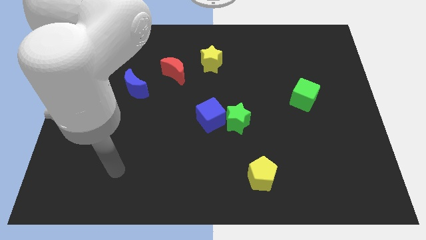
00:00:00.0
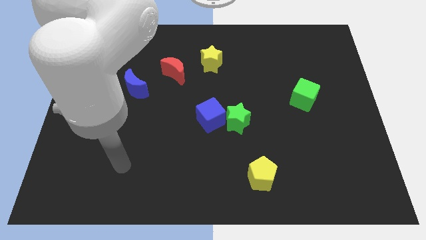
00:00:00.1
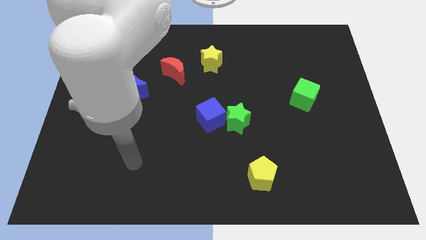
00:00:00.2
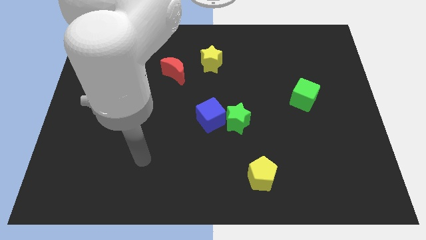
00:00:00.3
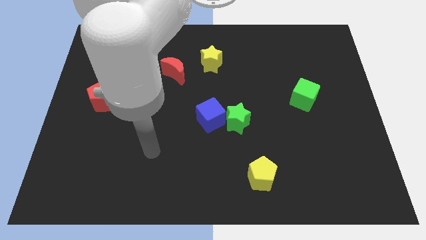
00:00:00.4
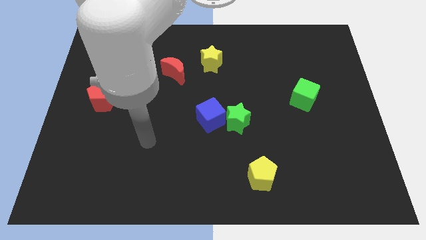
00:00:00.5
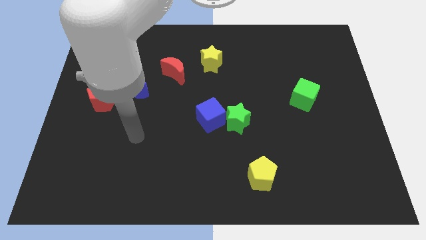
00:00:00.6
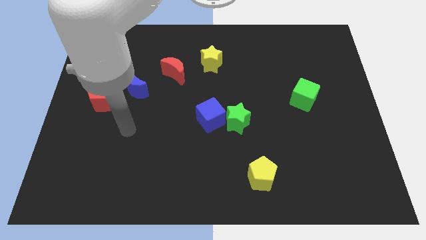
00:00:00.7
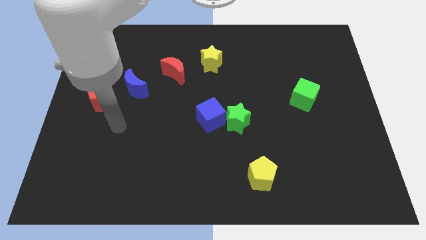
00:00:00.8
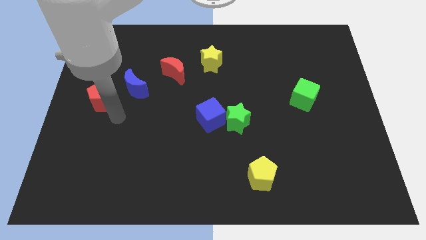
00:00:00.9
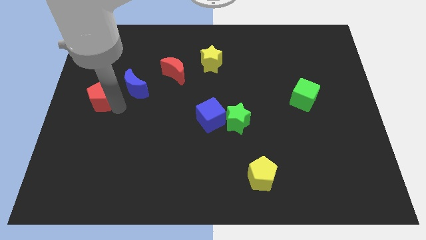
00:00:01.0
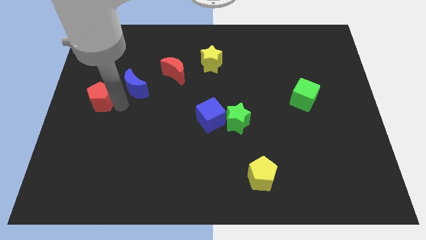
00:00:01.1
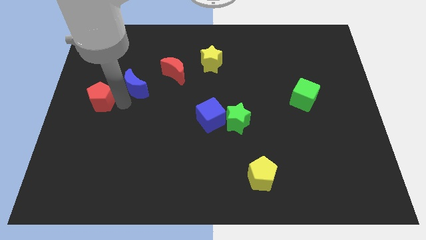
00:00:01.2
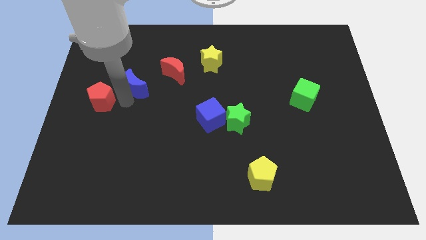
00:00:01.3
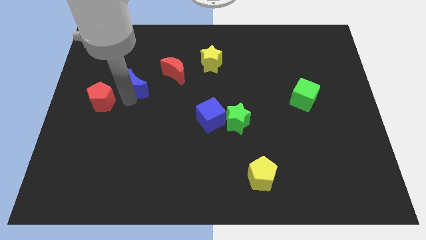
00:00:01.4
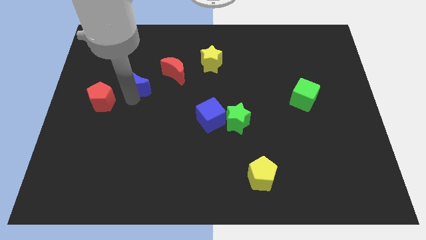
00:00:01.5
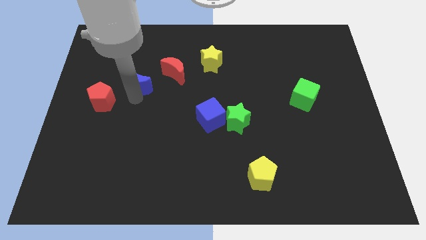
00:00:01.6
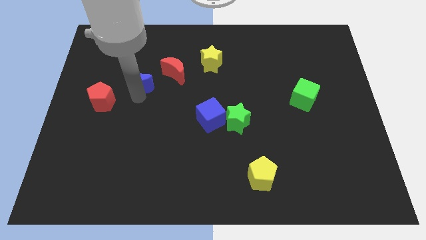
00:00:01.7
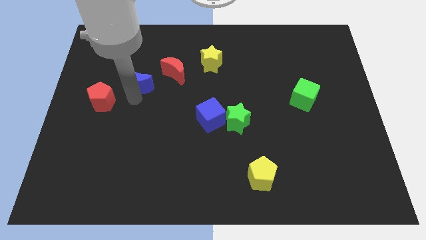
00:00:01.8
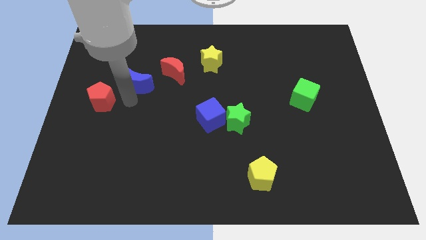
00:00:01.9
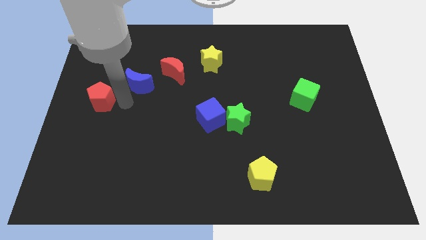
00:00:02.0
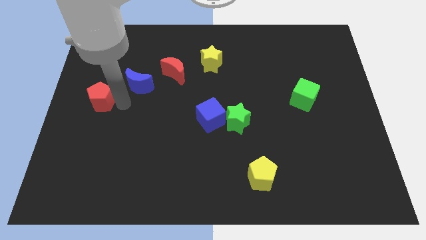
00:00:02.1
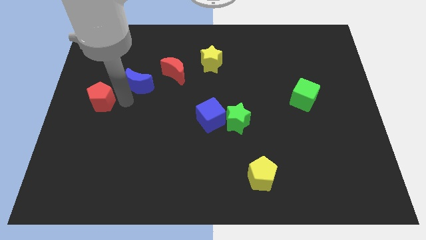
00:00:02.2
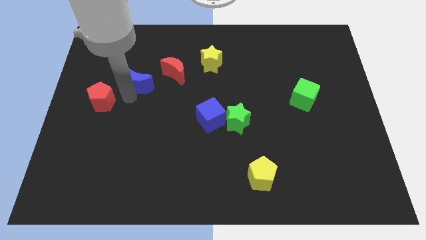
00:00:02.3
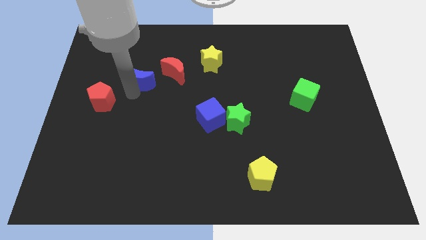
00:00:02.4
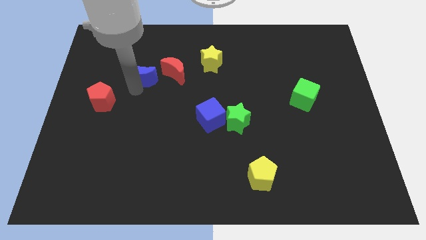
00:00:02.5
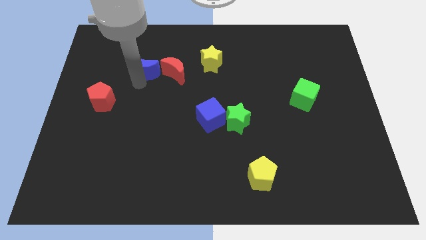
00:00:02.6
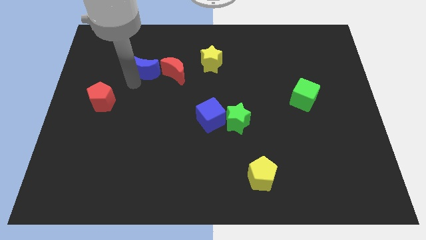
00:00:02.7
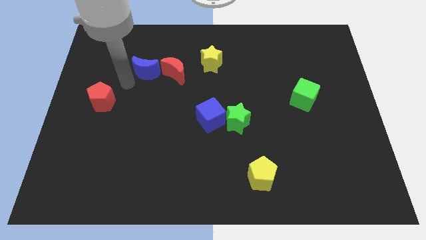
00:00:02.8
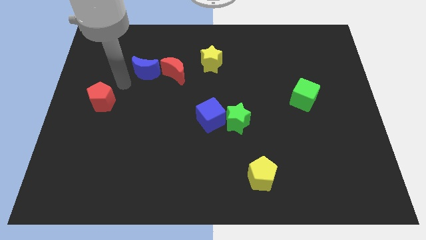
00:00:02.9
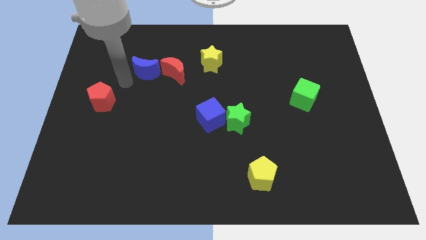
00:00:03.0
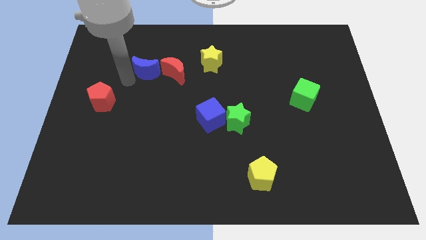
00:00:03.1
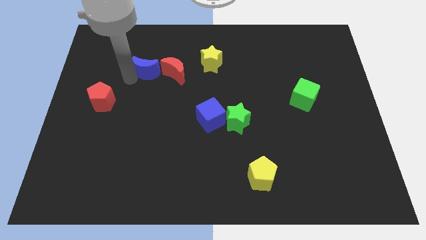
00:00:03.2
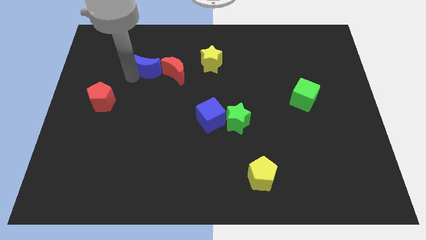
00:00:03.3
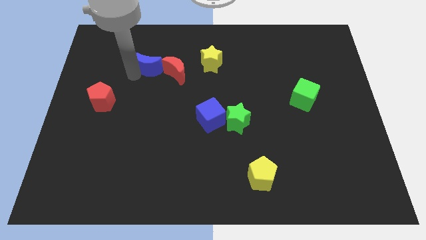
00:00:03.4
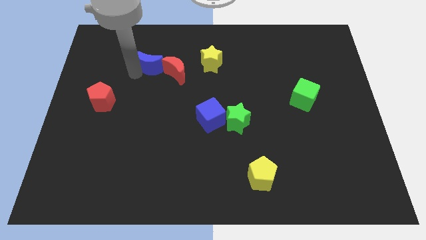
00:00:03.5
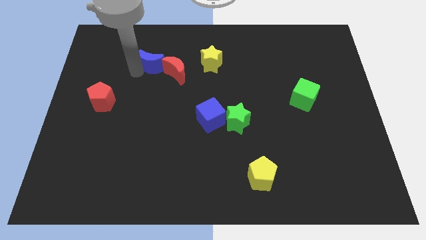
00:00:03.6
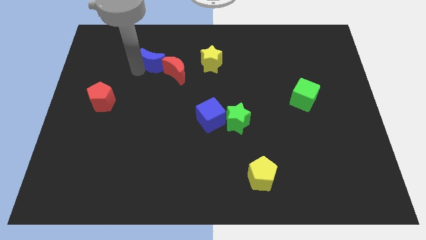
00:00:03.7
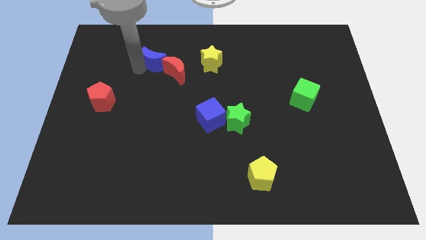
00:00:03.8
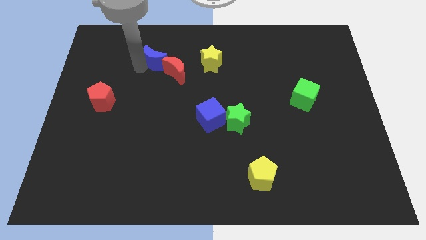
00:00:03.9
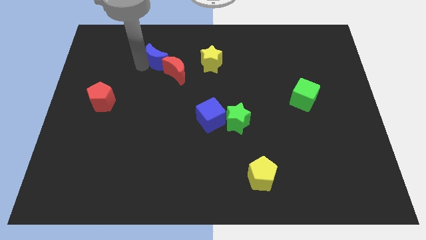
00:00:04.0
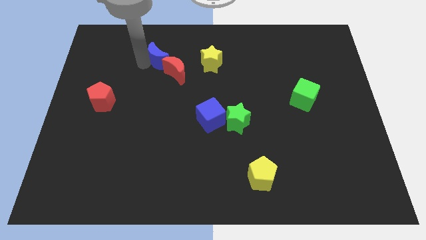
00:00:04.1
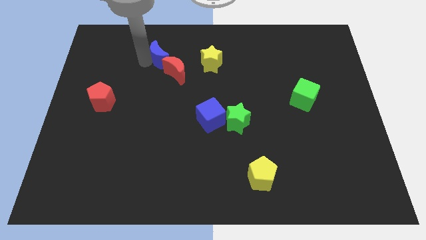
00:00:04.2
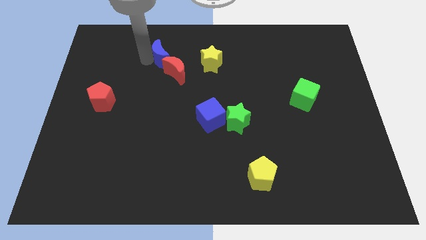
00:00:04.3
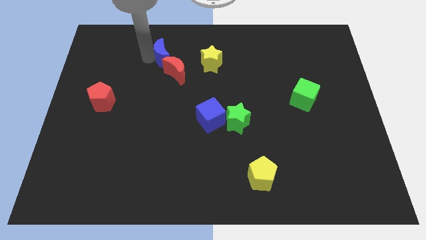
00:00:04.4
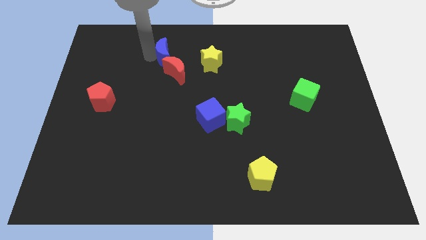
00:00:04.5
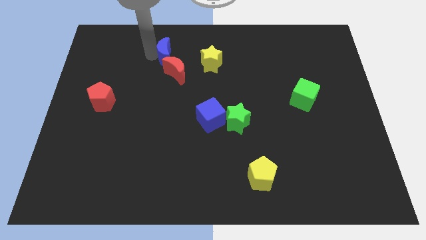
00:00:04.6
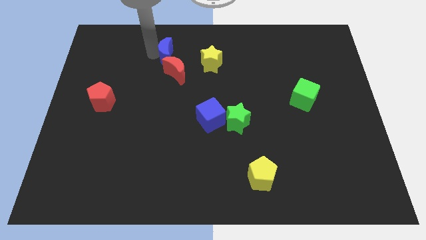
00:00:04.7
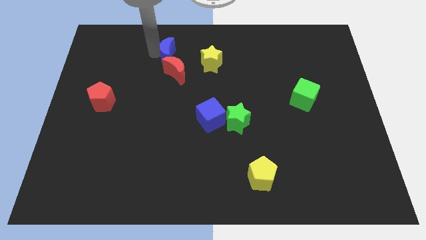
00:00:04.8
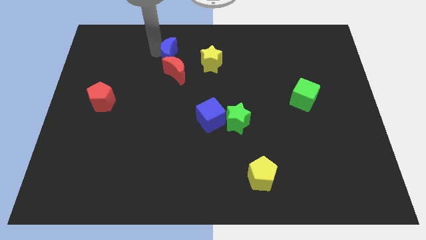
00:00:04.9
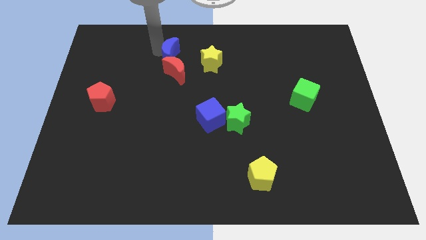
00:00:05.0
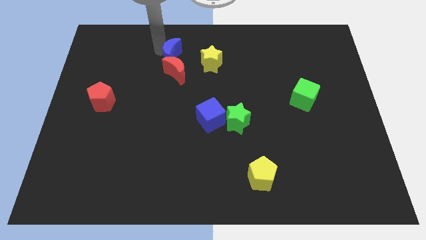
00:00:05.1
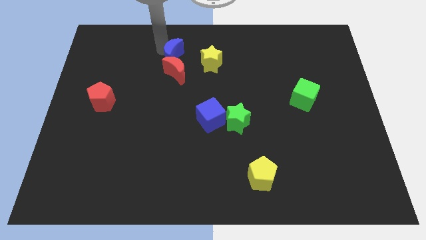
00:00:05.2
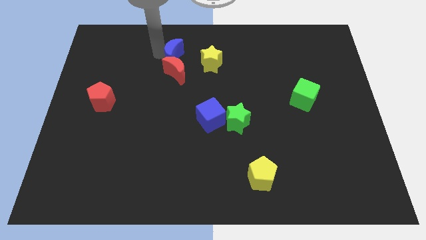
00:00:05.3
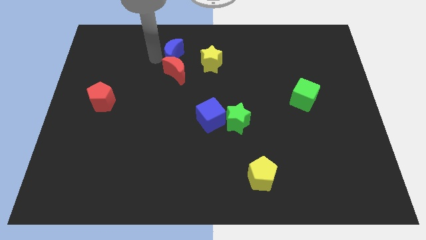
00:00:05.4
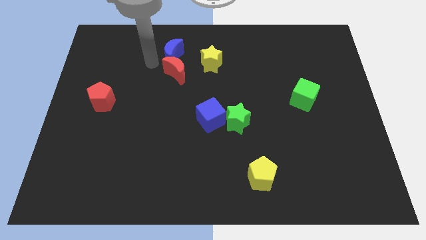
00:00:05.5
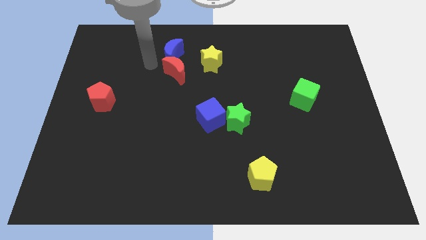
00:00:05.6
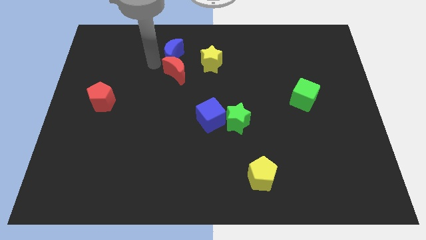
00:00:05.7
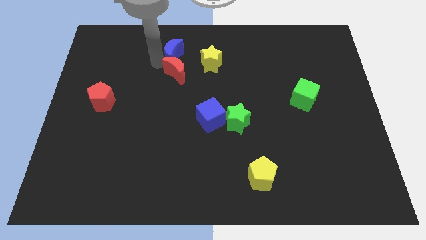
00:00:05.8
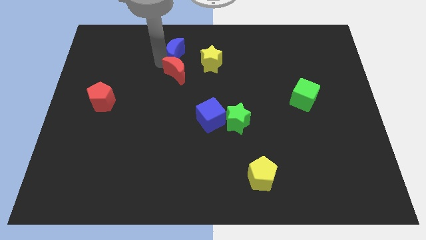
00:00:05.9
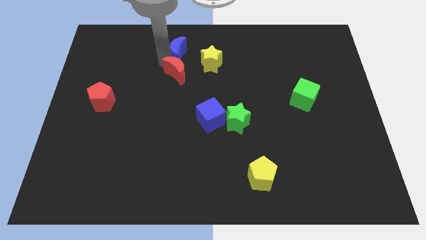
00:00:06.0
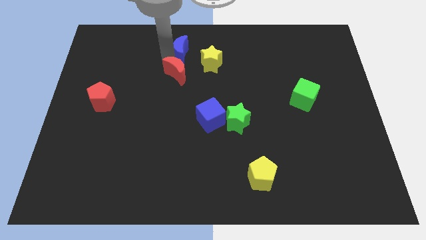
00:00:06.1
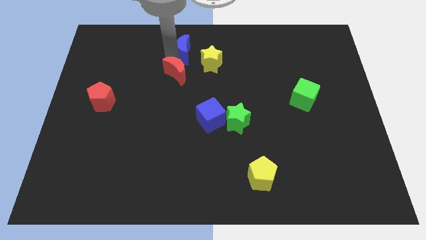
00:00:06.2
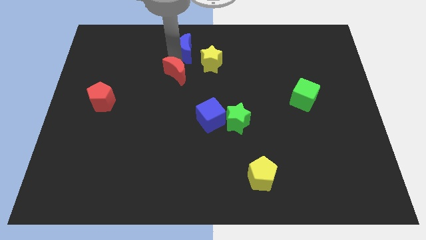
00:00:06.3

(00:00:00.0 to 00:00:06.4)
slide the blue moon to the top side

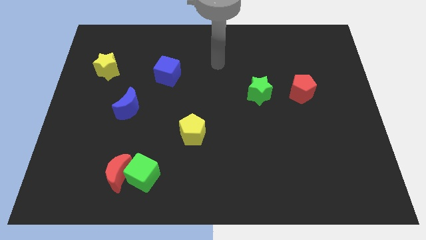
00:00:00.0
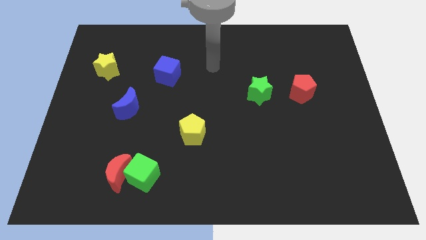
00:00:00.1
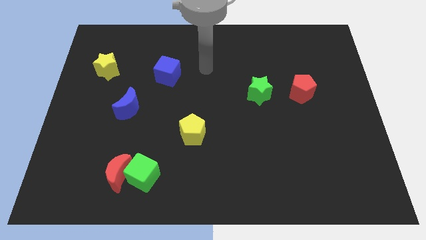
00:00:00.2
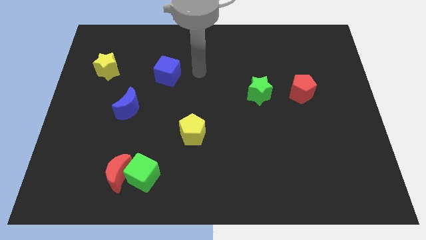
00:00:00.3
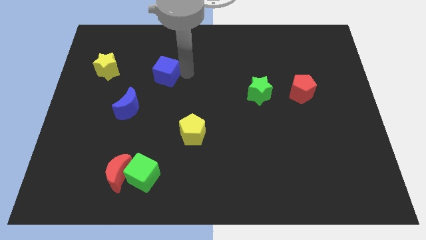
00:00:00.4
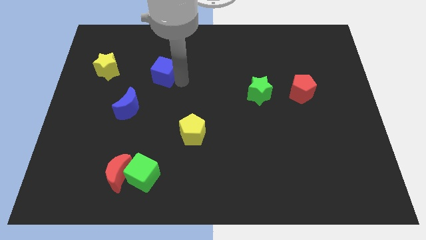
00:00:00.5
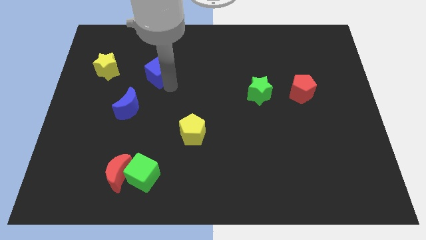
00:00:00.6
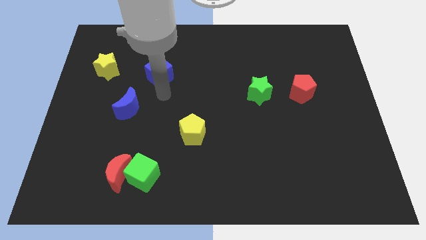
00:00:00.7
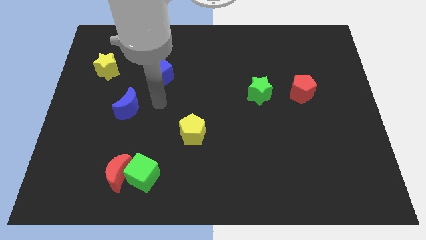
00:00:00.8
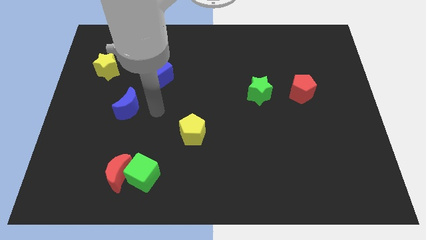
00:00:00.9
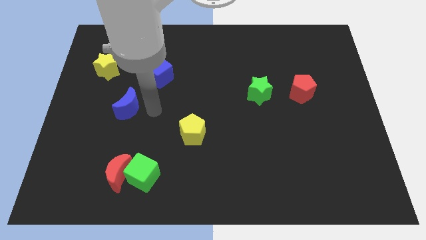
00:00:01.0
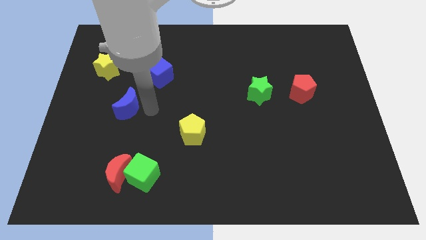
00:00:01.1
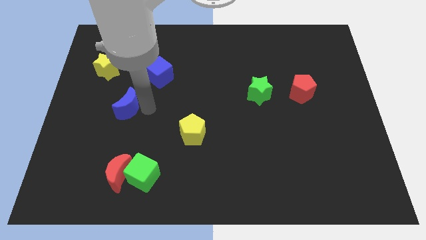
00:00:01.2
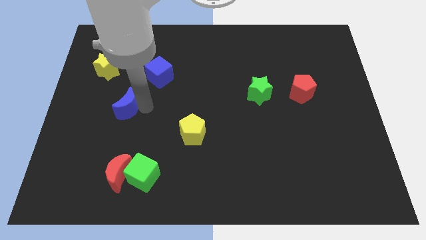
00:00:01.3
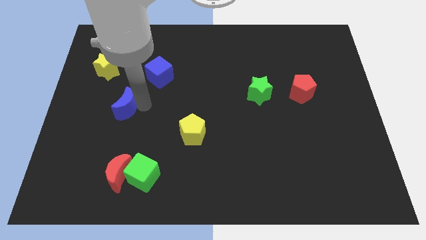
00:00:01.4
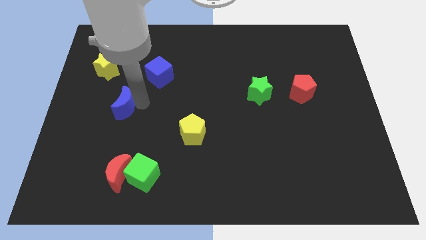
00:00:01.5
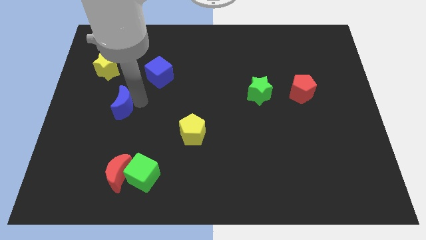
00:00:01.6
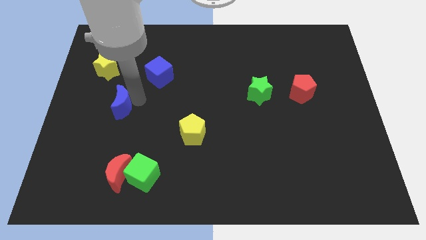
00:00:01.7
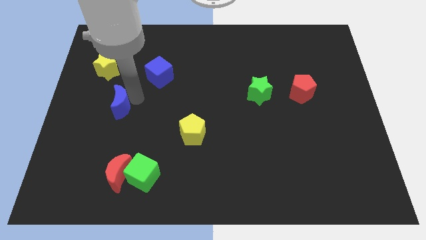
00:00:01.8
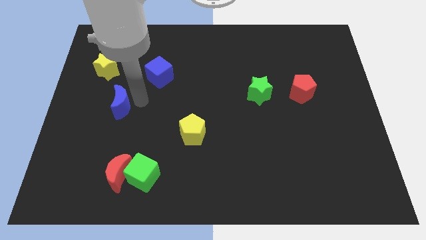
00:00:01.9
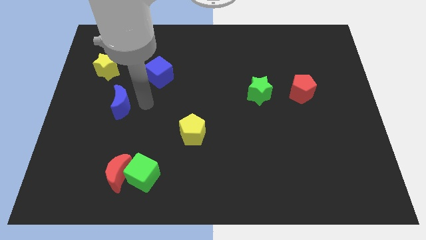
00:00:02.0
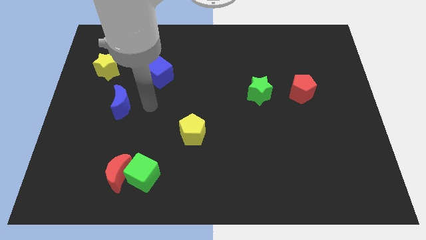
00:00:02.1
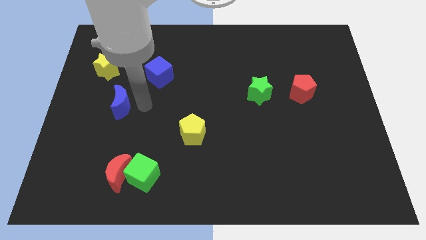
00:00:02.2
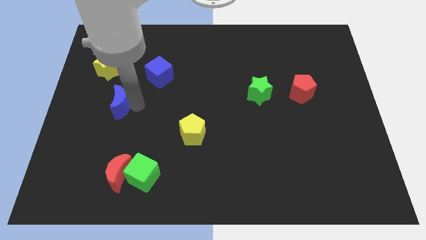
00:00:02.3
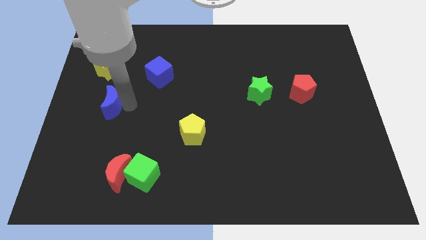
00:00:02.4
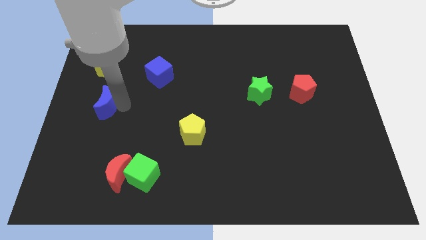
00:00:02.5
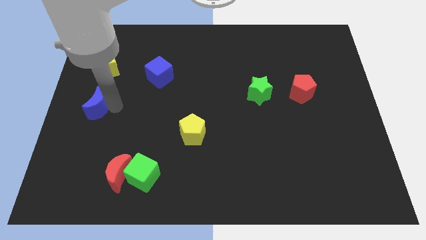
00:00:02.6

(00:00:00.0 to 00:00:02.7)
move the blue moon to the left side of the board
